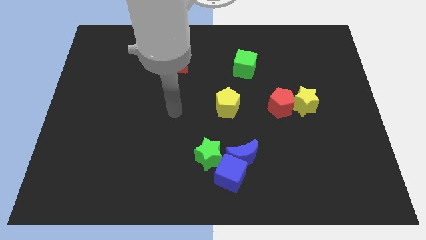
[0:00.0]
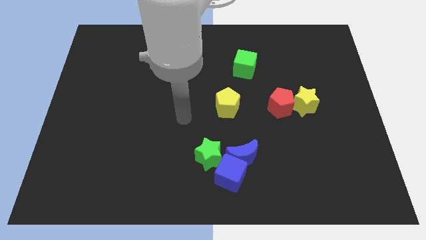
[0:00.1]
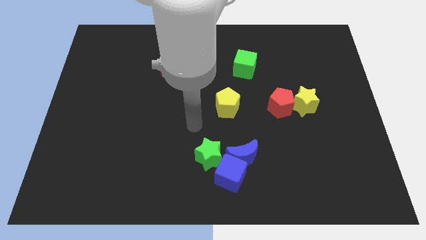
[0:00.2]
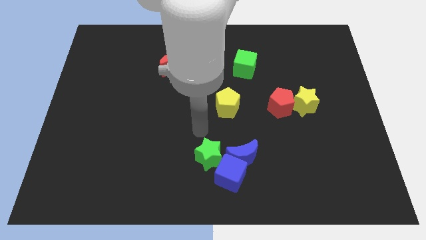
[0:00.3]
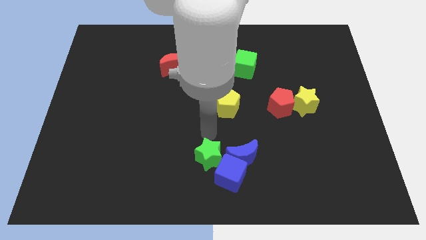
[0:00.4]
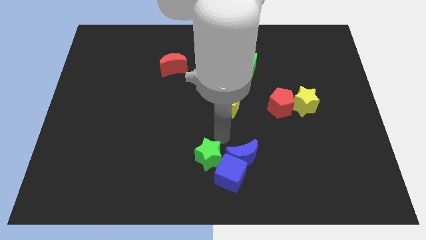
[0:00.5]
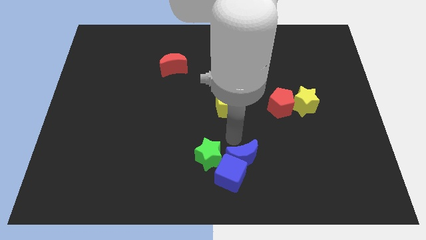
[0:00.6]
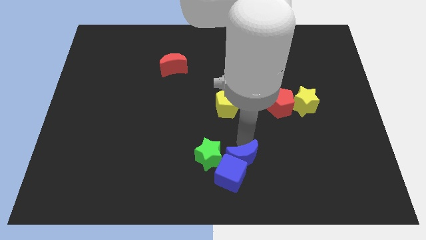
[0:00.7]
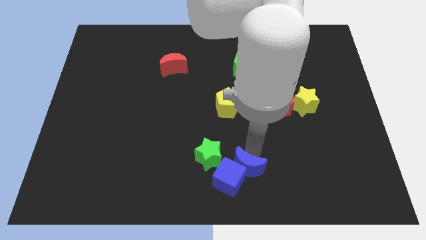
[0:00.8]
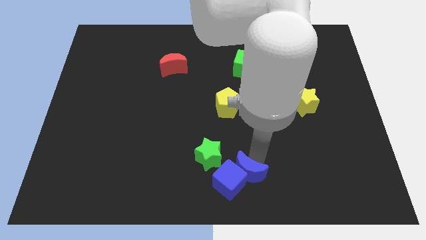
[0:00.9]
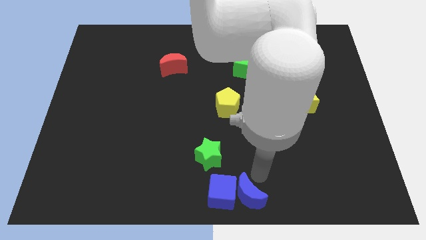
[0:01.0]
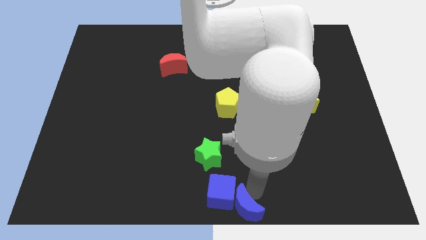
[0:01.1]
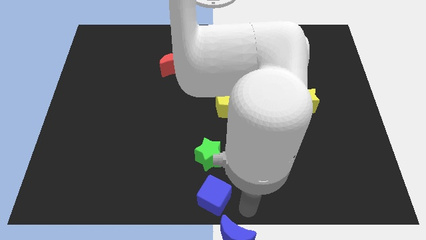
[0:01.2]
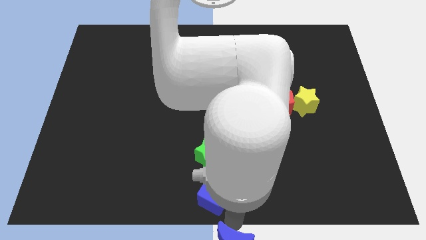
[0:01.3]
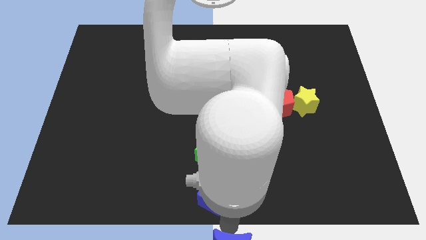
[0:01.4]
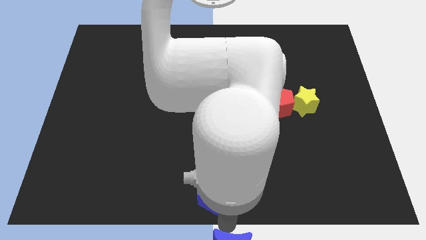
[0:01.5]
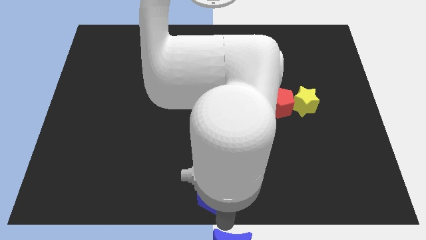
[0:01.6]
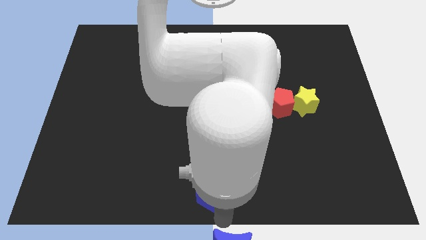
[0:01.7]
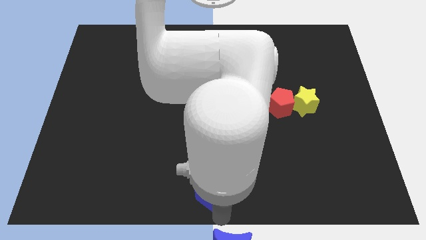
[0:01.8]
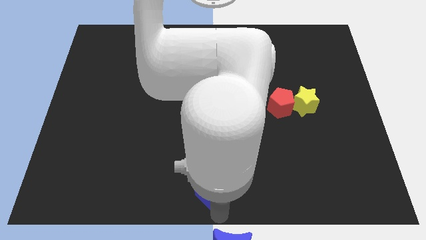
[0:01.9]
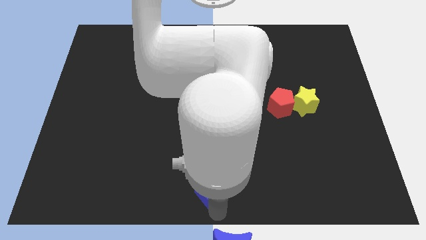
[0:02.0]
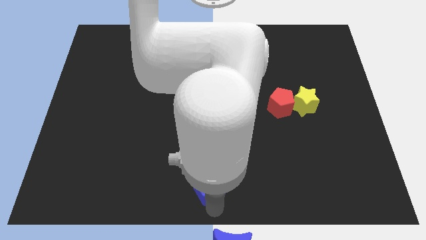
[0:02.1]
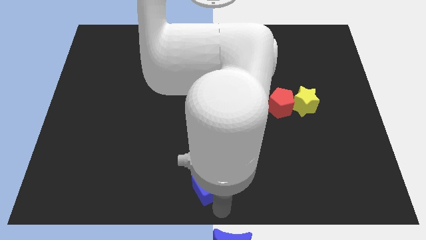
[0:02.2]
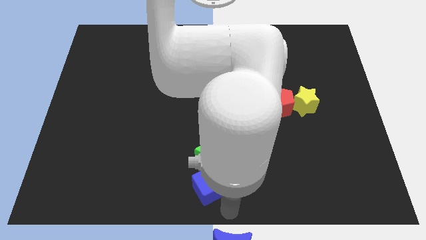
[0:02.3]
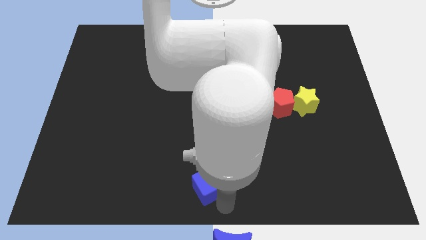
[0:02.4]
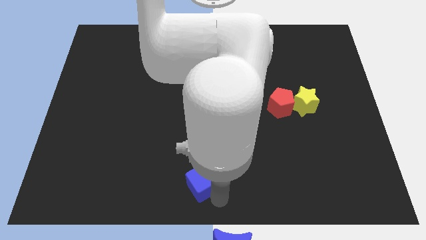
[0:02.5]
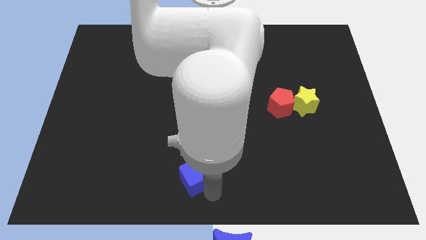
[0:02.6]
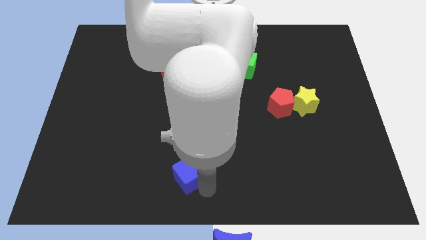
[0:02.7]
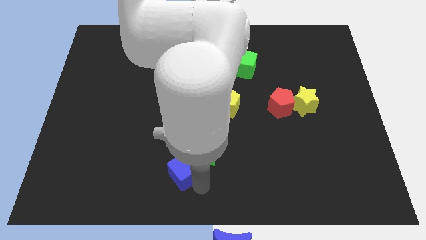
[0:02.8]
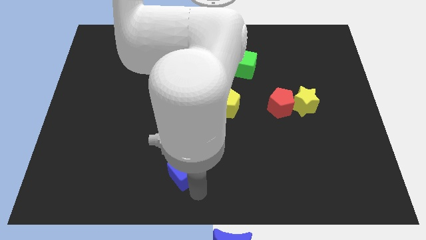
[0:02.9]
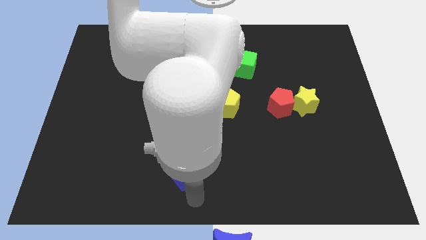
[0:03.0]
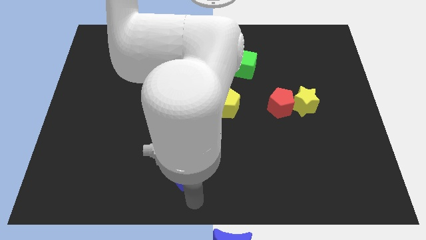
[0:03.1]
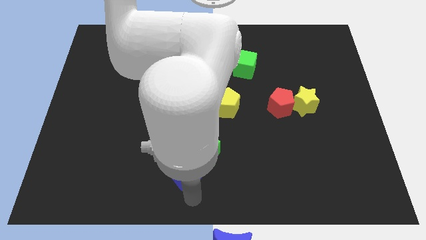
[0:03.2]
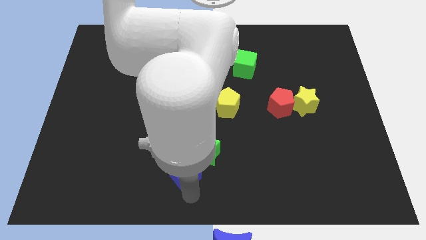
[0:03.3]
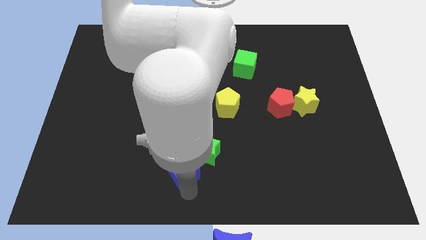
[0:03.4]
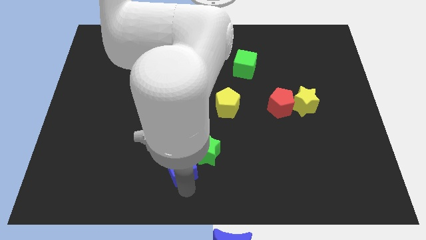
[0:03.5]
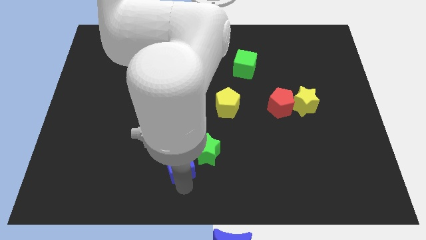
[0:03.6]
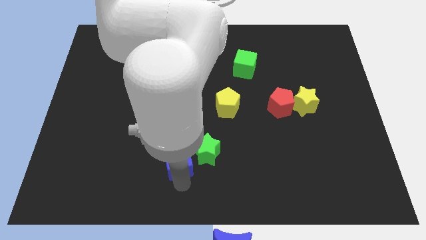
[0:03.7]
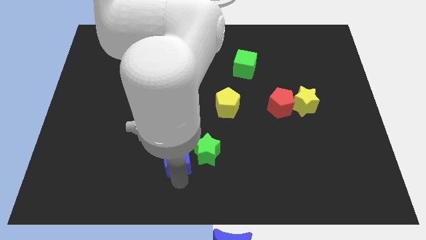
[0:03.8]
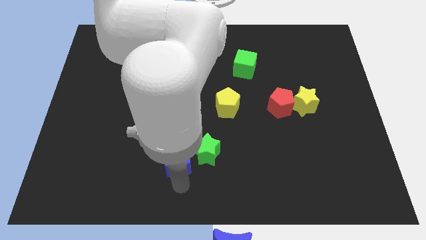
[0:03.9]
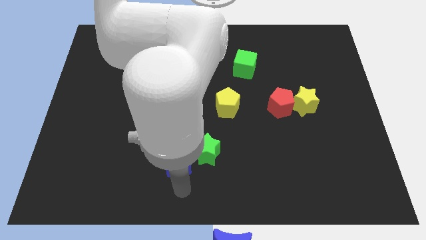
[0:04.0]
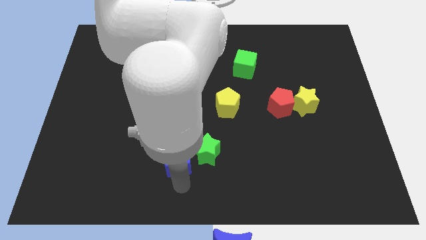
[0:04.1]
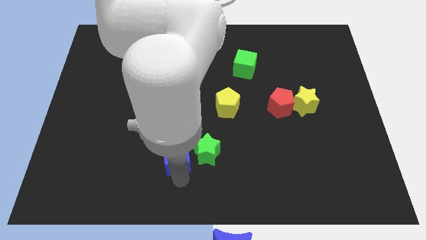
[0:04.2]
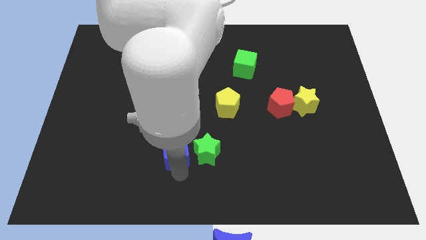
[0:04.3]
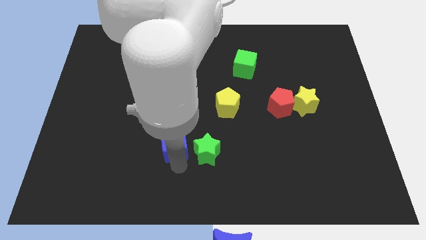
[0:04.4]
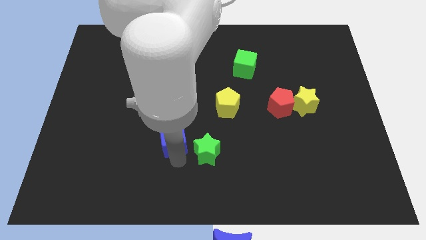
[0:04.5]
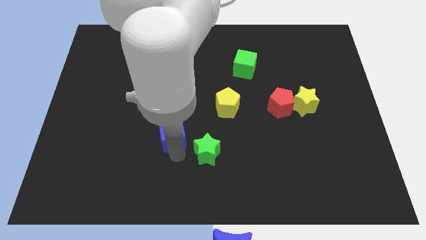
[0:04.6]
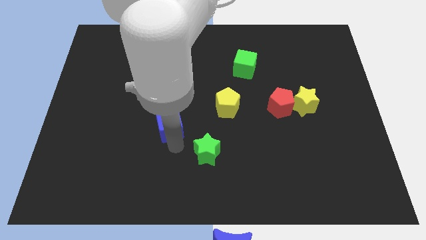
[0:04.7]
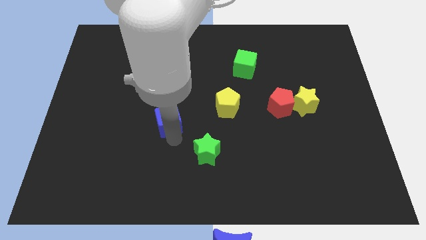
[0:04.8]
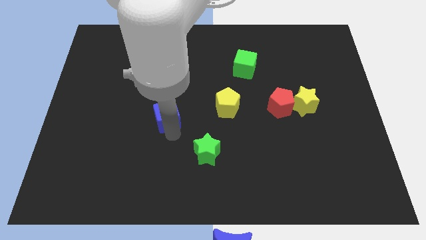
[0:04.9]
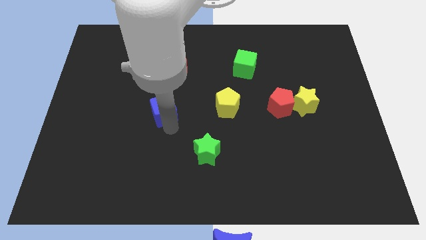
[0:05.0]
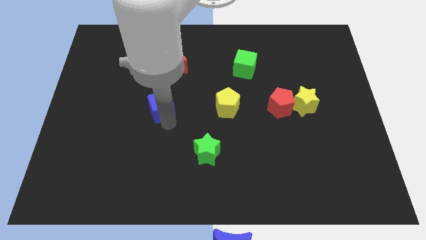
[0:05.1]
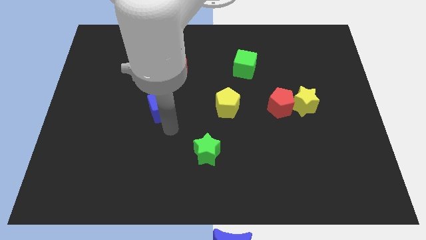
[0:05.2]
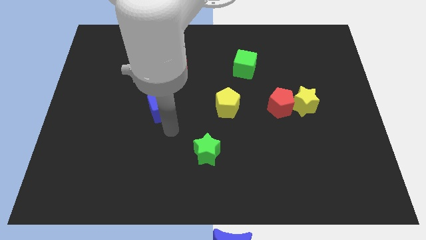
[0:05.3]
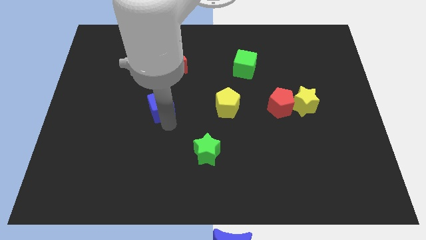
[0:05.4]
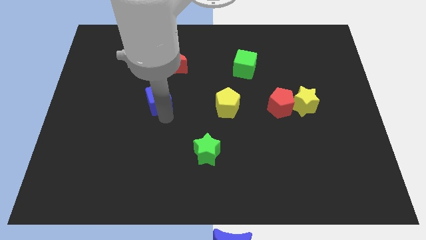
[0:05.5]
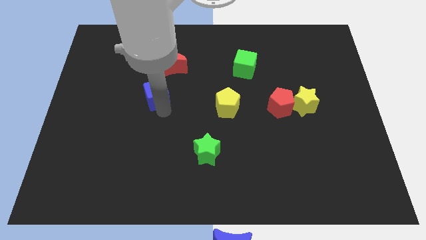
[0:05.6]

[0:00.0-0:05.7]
put the blue cube to the bottom left of the red moon

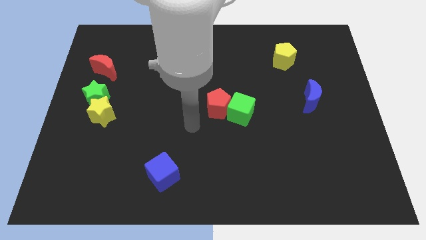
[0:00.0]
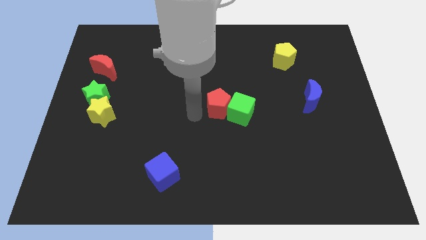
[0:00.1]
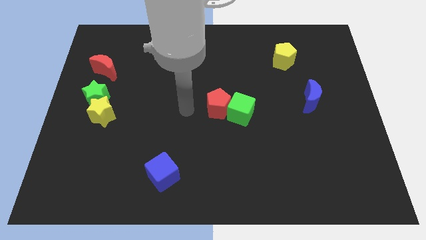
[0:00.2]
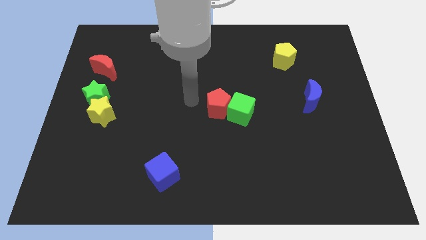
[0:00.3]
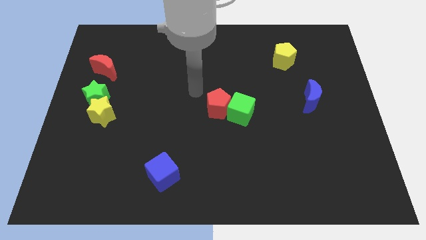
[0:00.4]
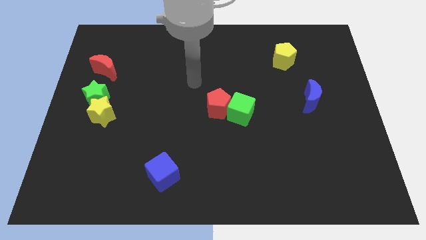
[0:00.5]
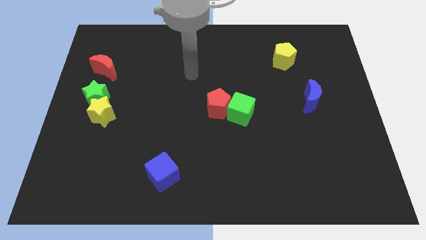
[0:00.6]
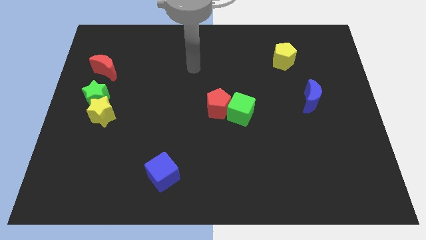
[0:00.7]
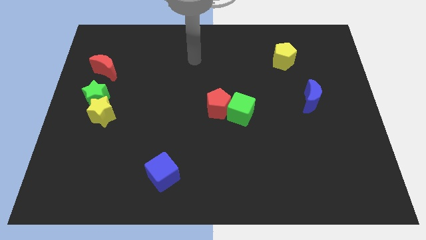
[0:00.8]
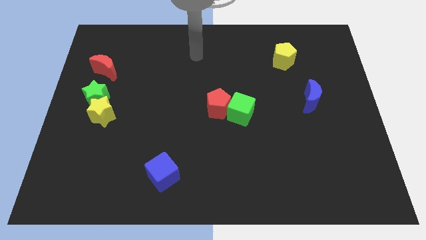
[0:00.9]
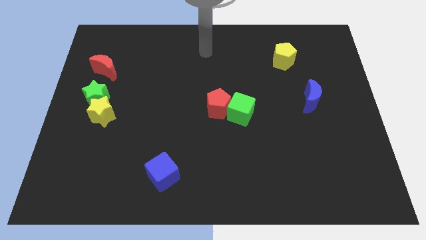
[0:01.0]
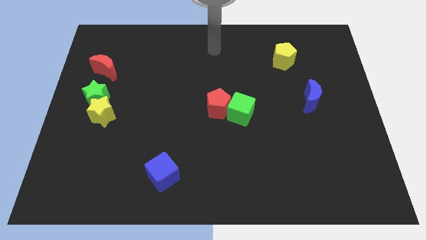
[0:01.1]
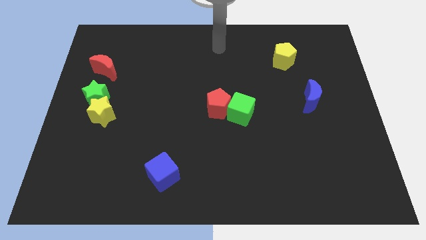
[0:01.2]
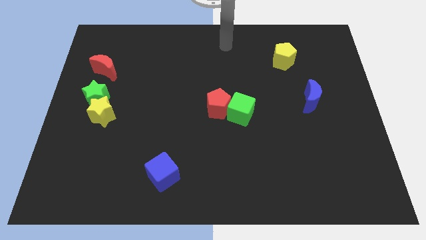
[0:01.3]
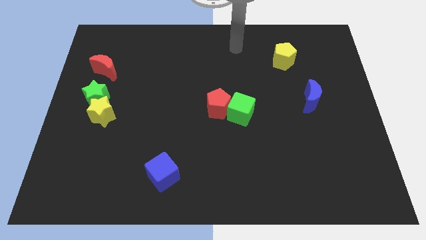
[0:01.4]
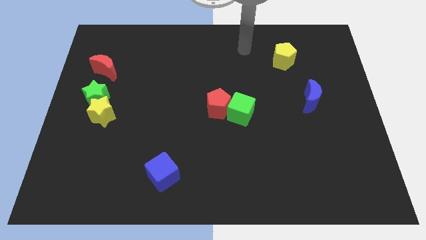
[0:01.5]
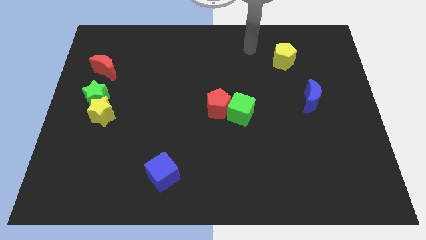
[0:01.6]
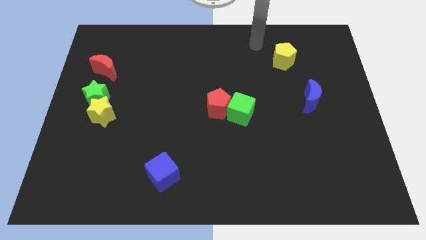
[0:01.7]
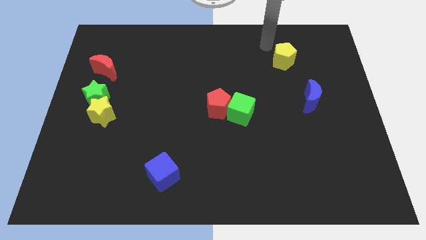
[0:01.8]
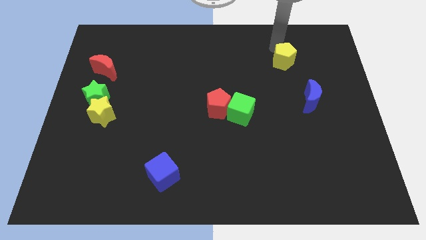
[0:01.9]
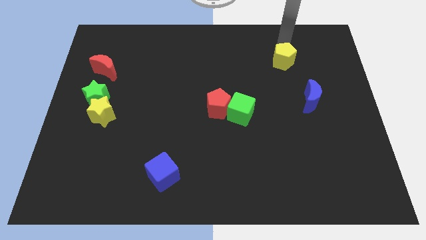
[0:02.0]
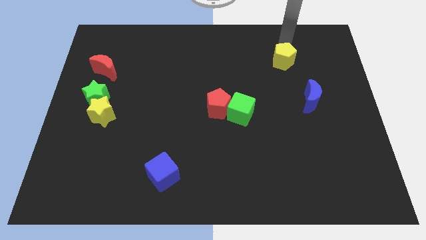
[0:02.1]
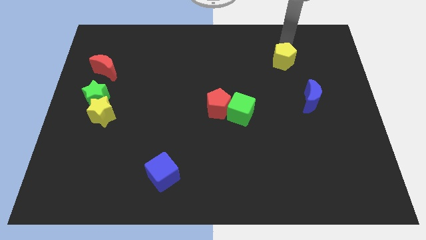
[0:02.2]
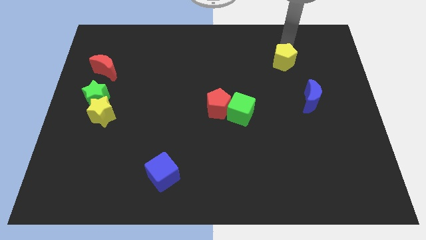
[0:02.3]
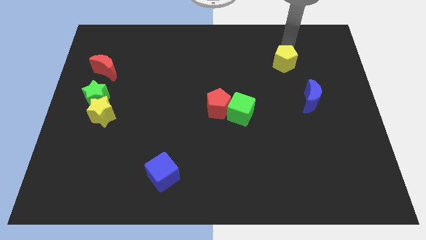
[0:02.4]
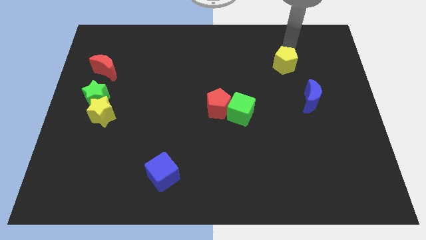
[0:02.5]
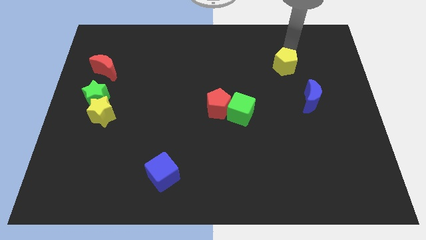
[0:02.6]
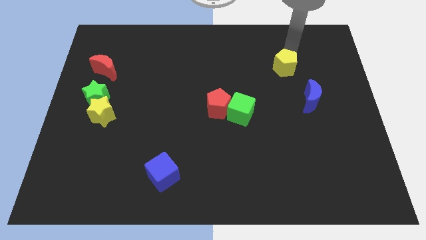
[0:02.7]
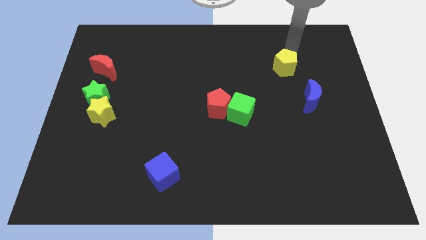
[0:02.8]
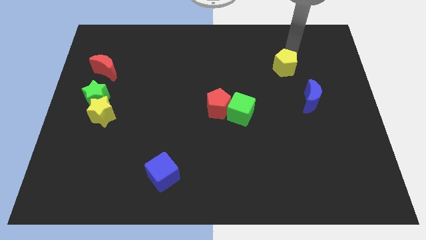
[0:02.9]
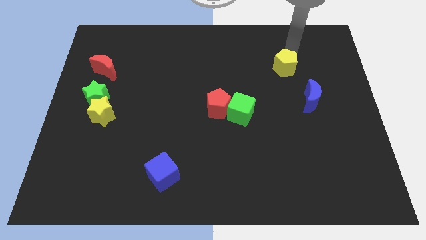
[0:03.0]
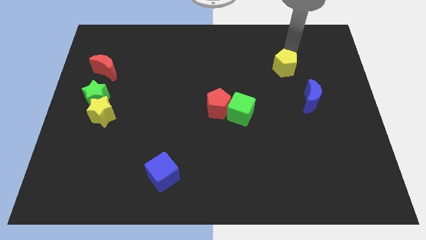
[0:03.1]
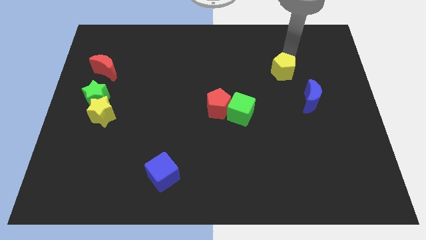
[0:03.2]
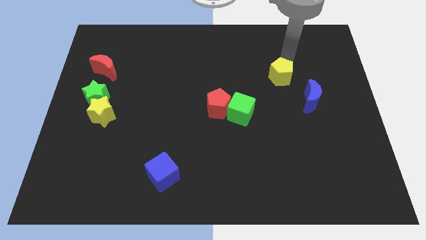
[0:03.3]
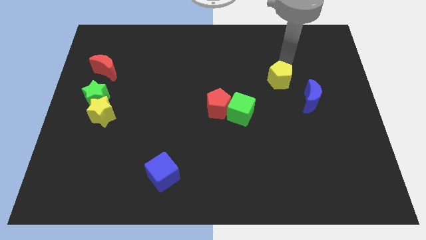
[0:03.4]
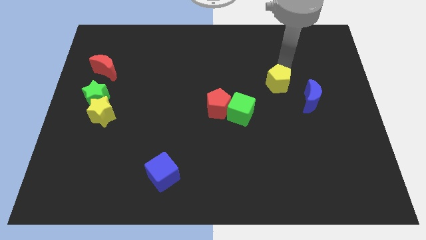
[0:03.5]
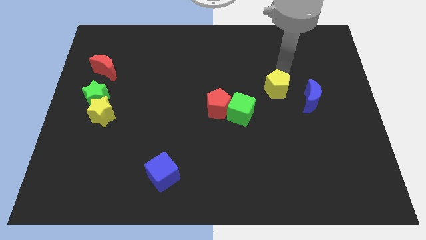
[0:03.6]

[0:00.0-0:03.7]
move the yellow pentagon to the left side of the blue moon
